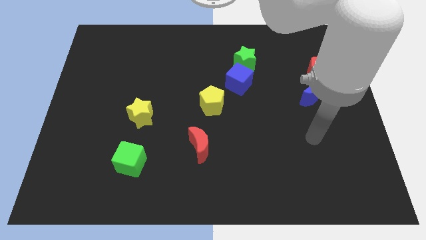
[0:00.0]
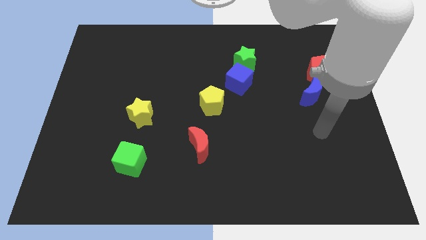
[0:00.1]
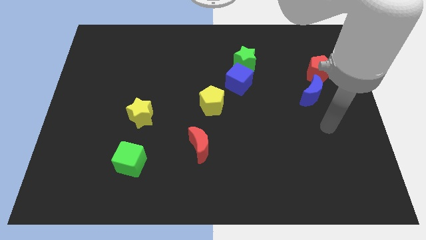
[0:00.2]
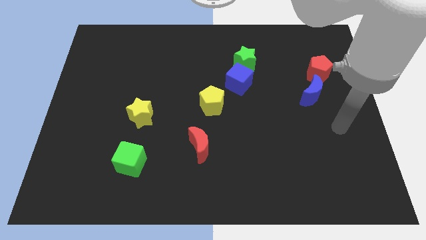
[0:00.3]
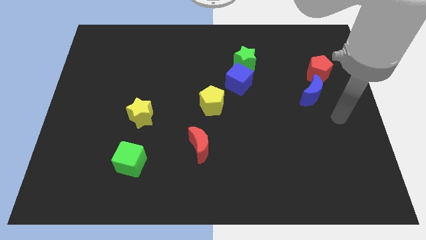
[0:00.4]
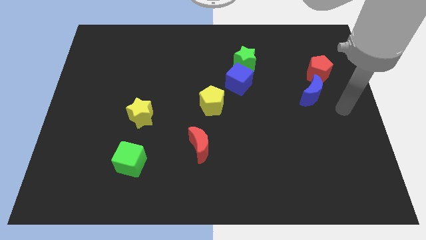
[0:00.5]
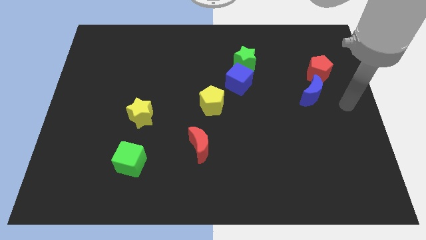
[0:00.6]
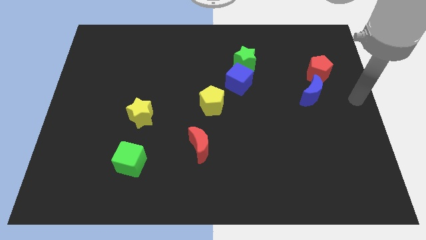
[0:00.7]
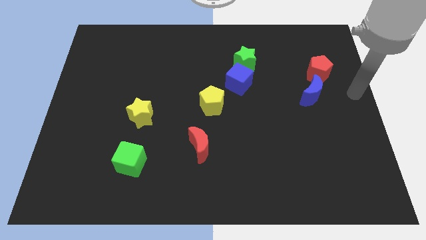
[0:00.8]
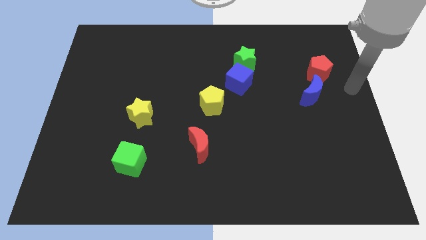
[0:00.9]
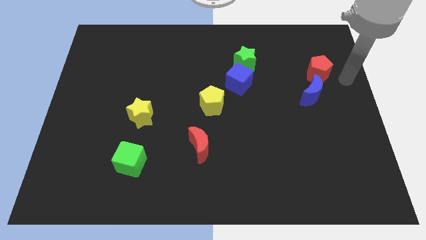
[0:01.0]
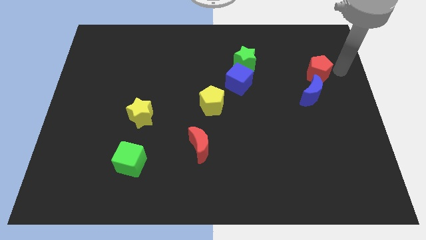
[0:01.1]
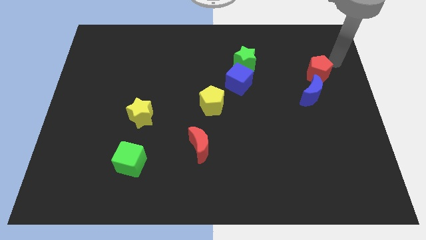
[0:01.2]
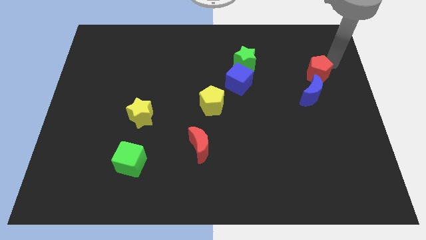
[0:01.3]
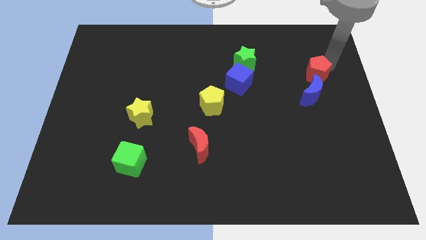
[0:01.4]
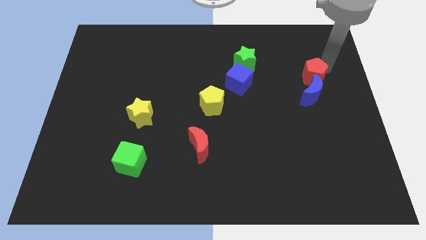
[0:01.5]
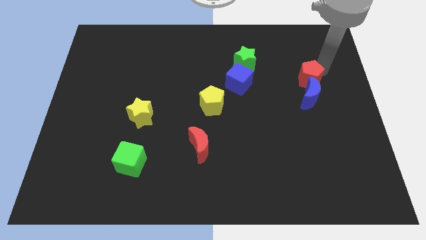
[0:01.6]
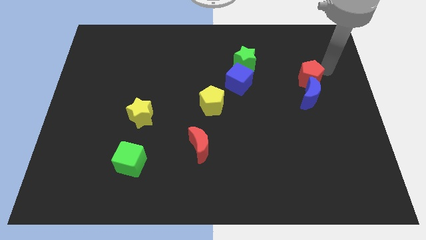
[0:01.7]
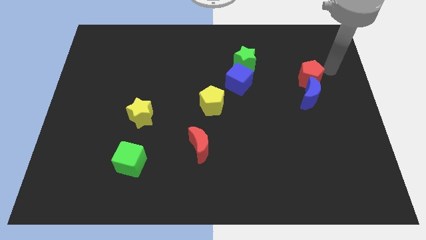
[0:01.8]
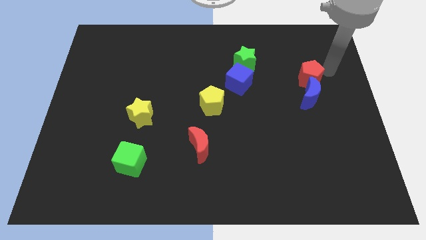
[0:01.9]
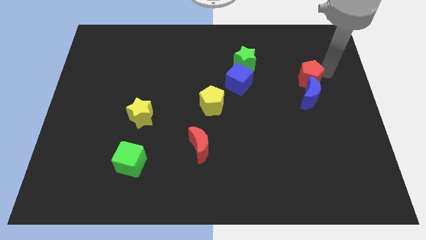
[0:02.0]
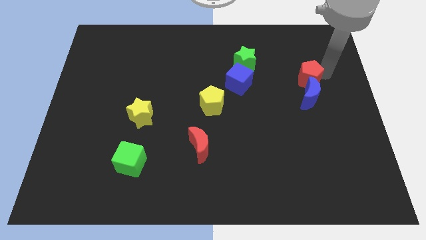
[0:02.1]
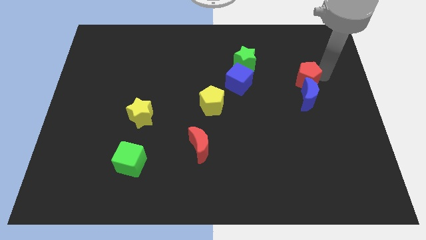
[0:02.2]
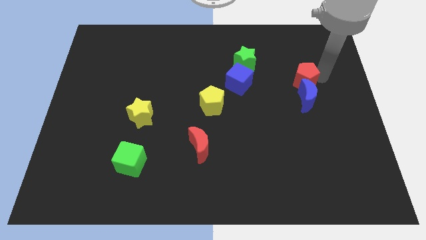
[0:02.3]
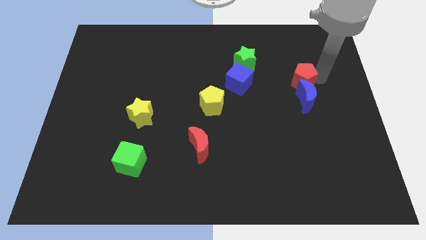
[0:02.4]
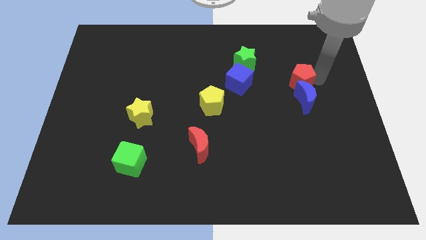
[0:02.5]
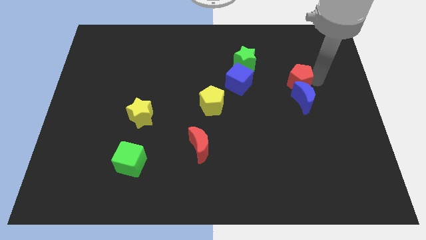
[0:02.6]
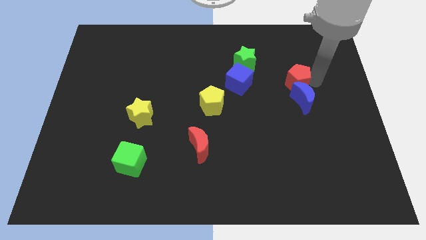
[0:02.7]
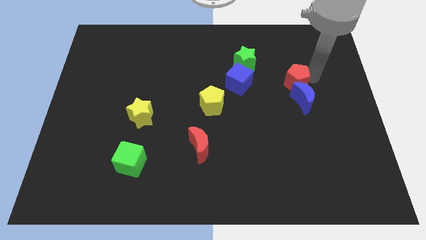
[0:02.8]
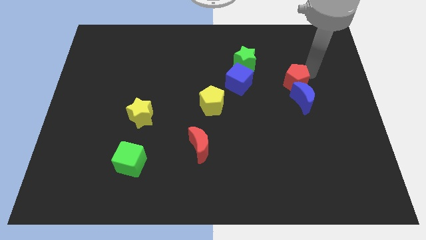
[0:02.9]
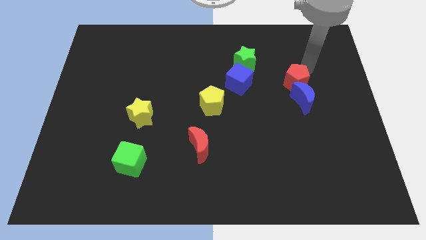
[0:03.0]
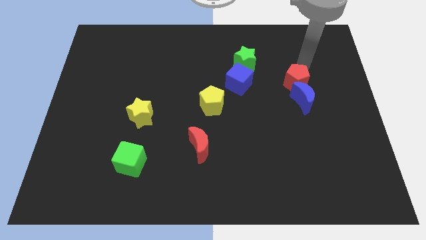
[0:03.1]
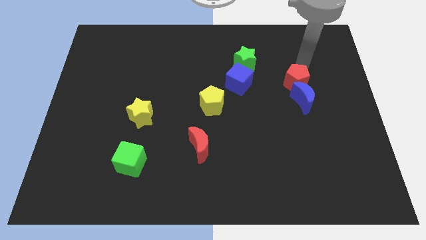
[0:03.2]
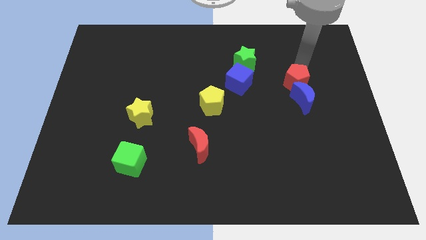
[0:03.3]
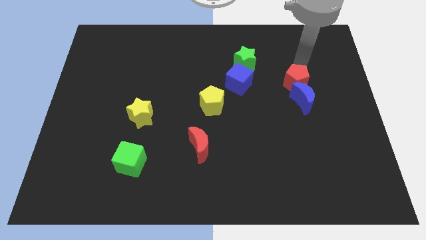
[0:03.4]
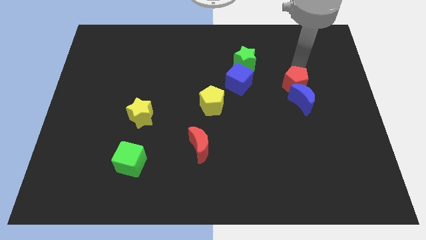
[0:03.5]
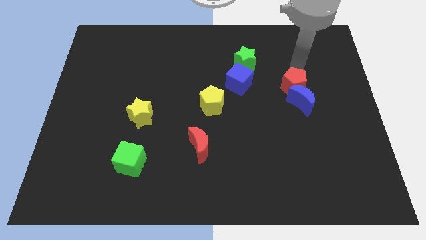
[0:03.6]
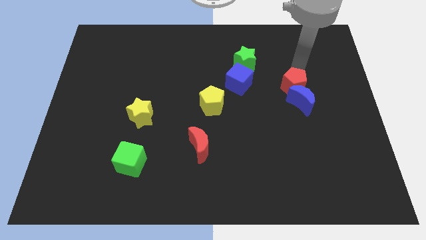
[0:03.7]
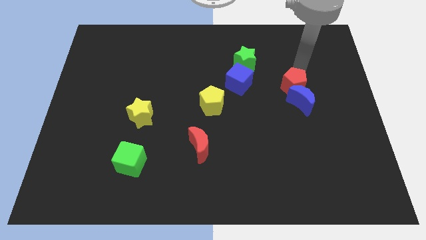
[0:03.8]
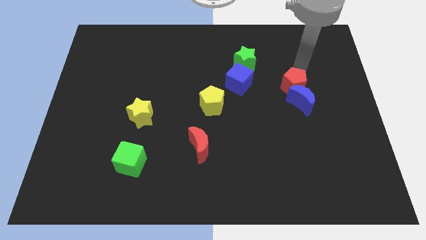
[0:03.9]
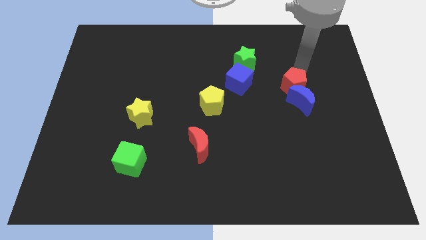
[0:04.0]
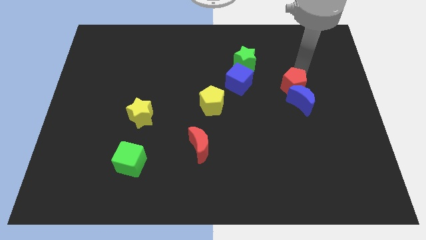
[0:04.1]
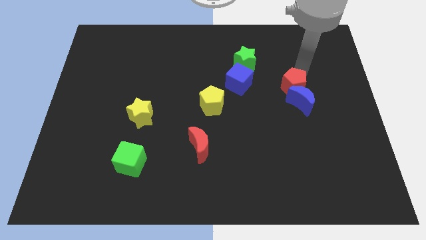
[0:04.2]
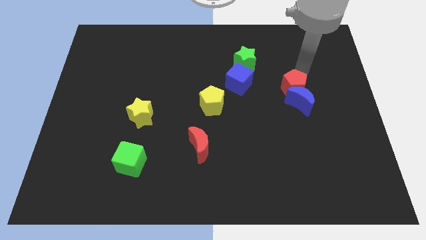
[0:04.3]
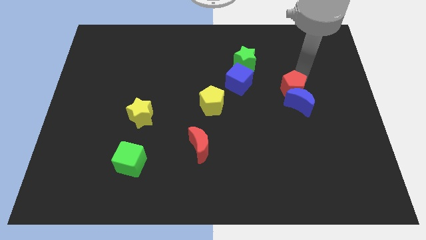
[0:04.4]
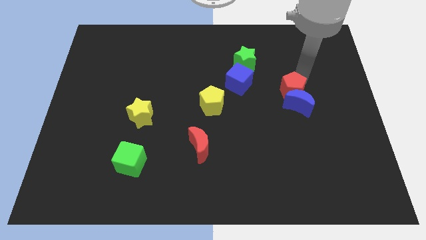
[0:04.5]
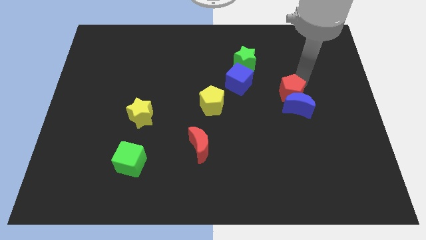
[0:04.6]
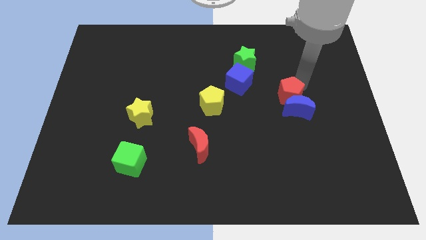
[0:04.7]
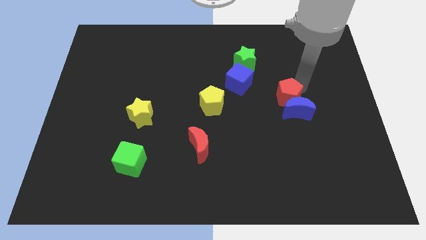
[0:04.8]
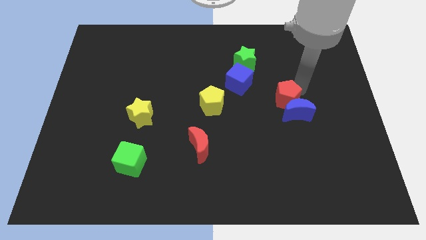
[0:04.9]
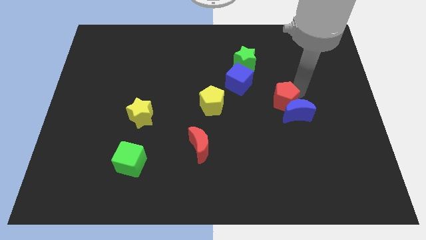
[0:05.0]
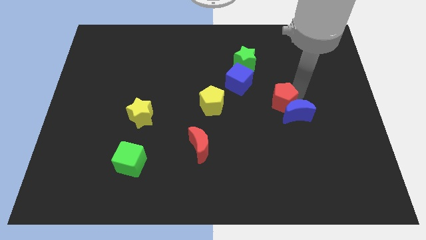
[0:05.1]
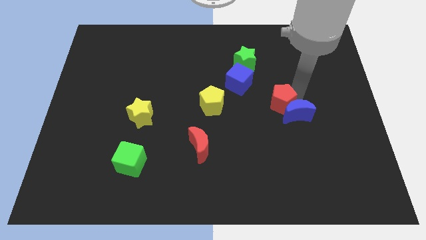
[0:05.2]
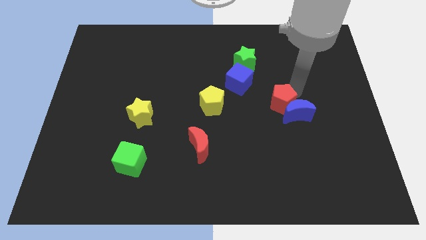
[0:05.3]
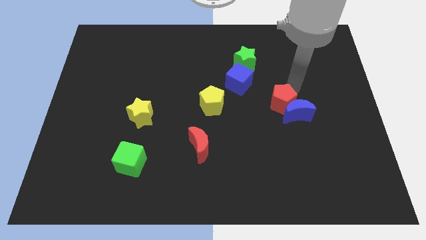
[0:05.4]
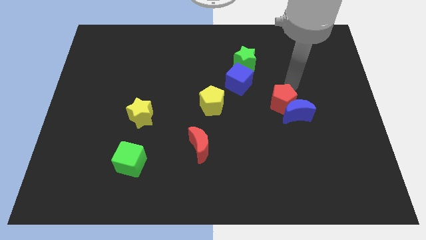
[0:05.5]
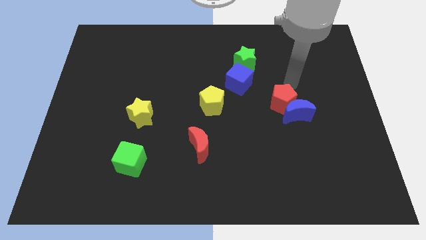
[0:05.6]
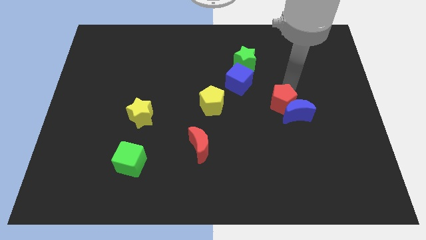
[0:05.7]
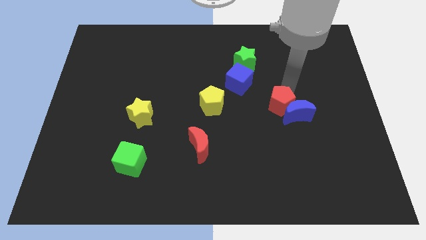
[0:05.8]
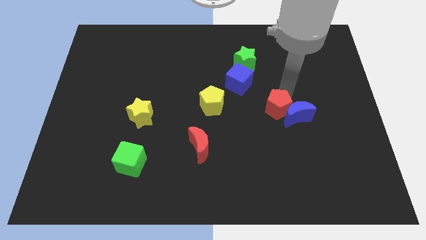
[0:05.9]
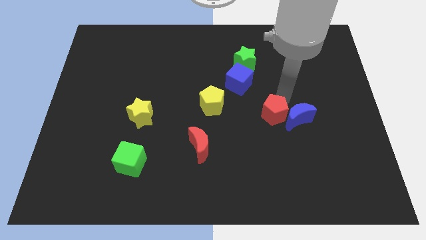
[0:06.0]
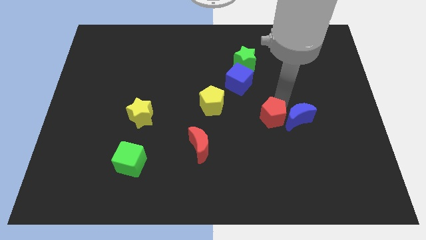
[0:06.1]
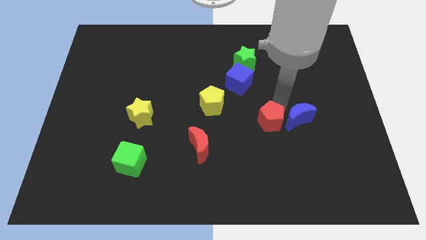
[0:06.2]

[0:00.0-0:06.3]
push the red pentagon down and left

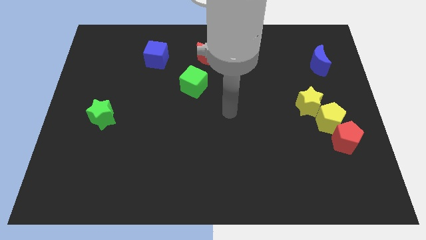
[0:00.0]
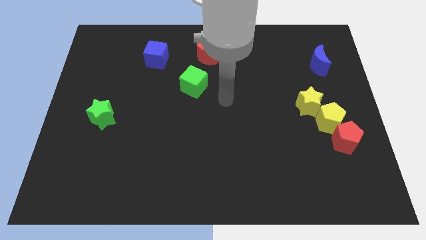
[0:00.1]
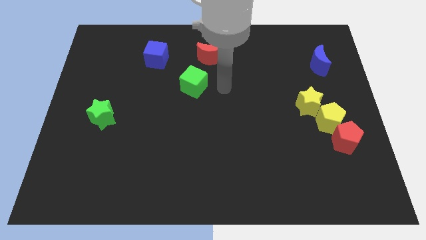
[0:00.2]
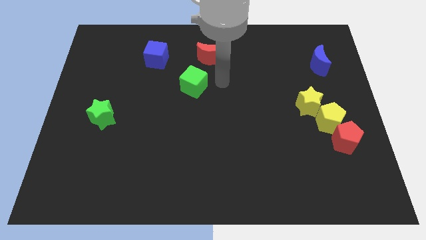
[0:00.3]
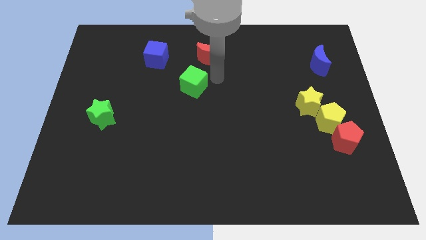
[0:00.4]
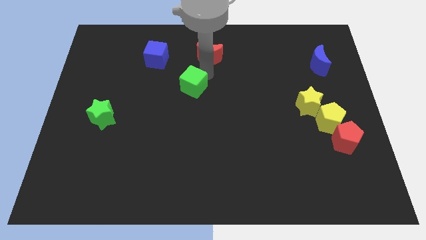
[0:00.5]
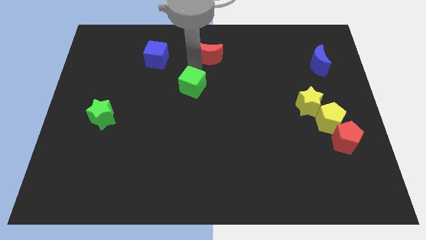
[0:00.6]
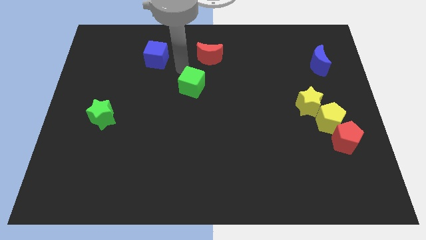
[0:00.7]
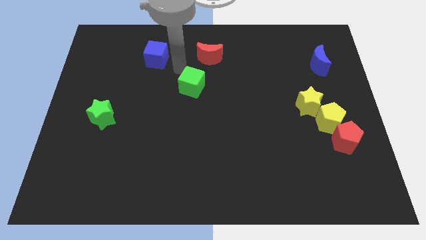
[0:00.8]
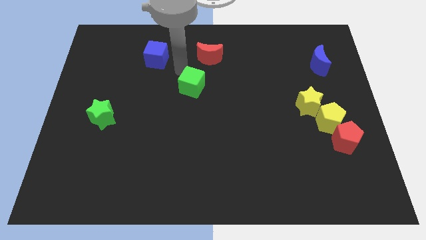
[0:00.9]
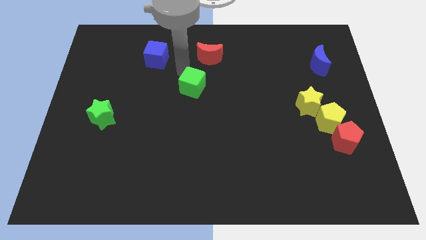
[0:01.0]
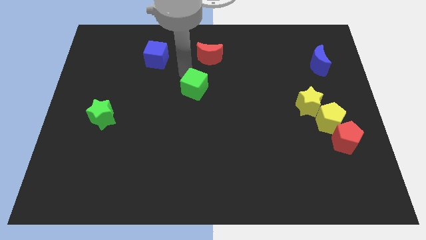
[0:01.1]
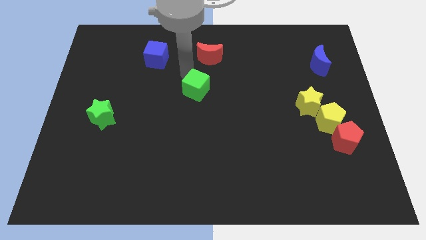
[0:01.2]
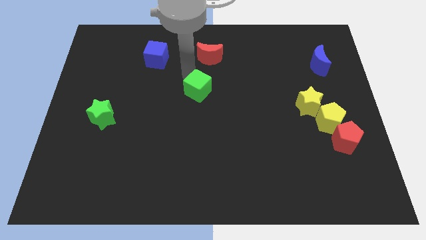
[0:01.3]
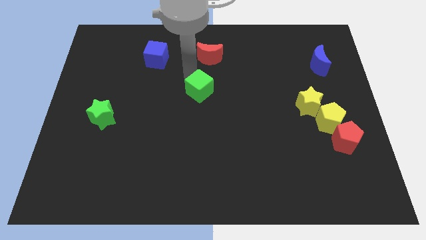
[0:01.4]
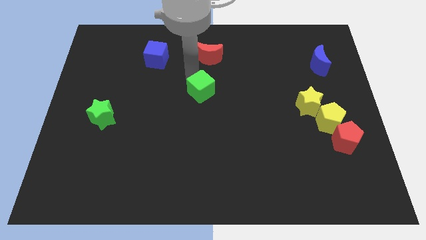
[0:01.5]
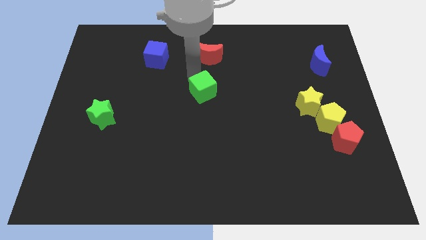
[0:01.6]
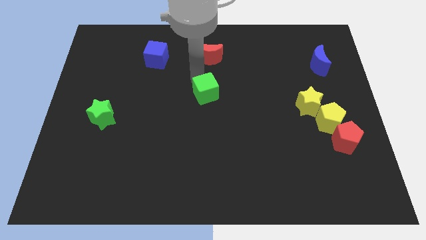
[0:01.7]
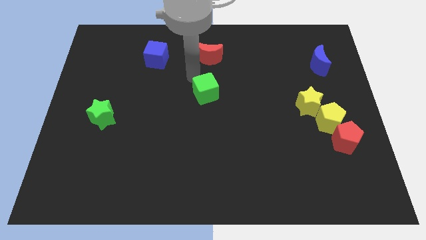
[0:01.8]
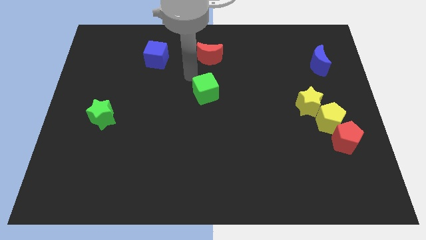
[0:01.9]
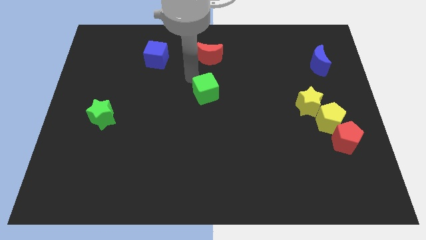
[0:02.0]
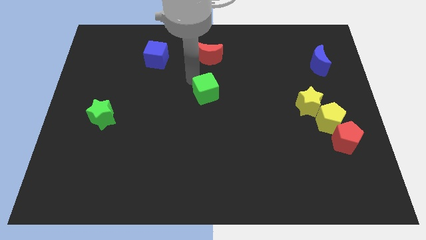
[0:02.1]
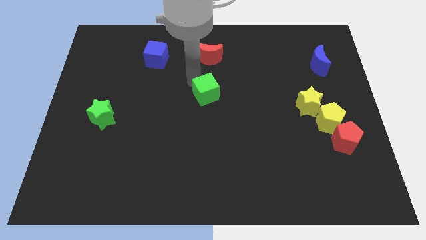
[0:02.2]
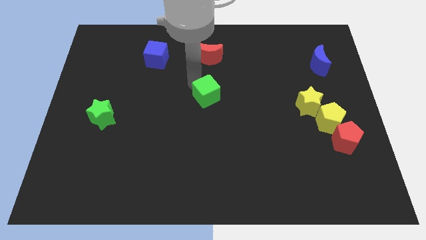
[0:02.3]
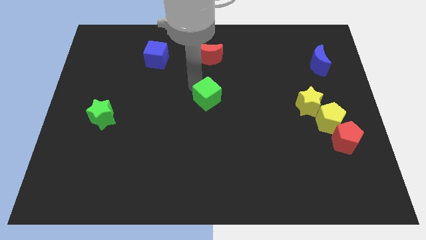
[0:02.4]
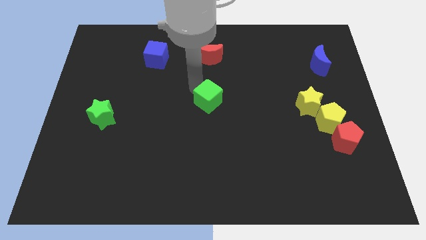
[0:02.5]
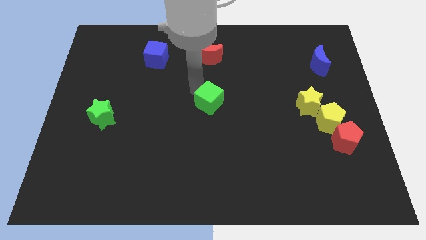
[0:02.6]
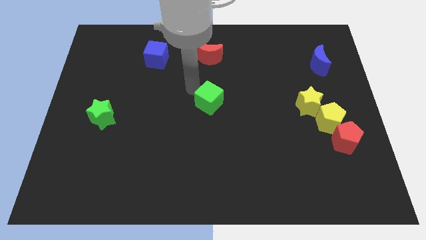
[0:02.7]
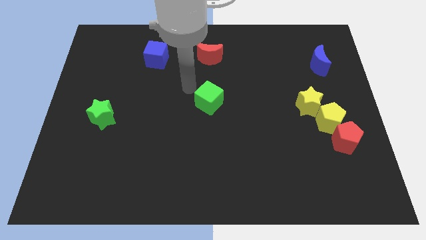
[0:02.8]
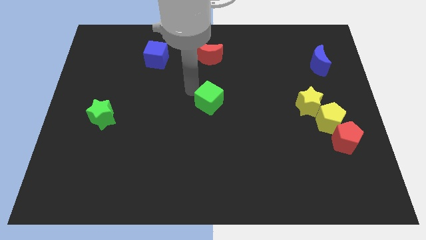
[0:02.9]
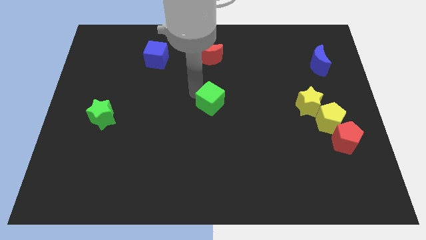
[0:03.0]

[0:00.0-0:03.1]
slightly push the green cube diagonally downwards and to the right
